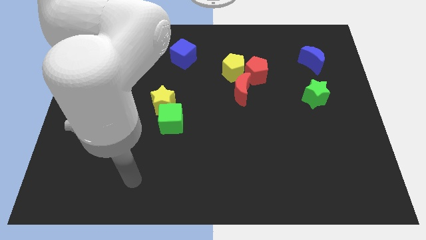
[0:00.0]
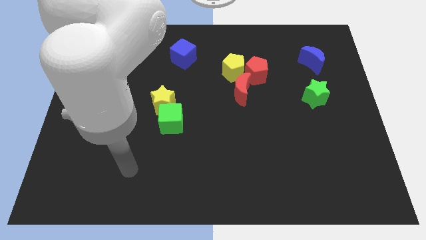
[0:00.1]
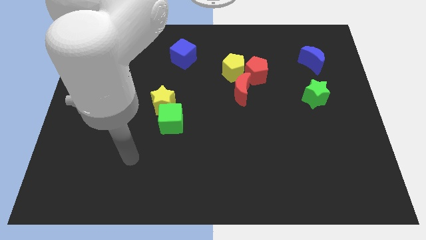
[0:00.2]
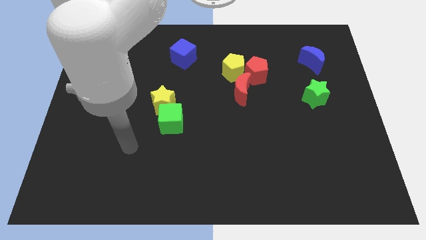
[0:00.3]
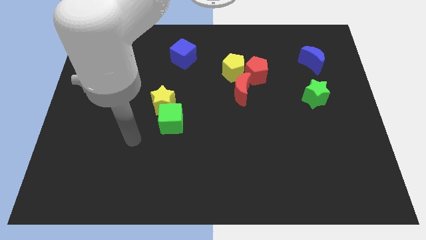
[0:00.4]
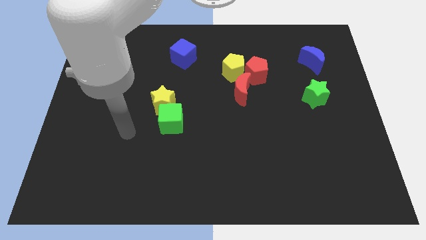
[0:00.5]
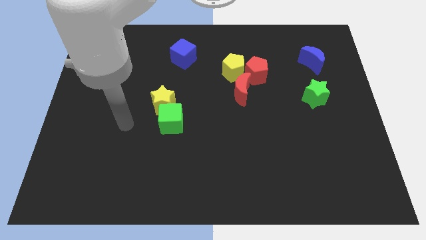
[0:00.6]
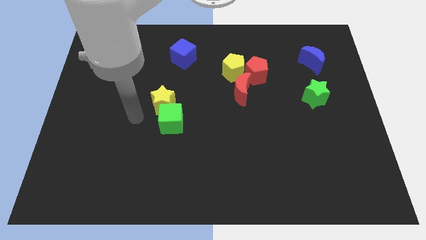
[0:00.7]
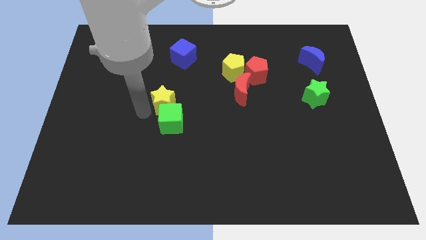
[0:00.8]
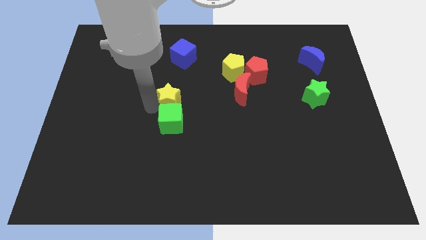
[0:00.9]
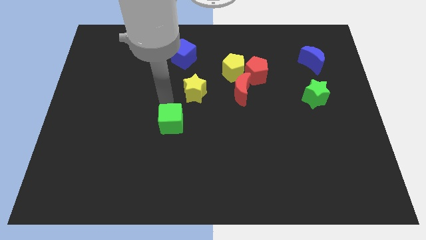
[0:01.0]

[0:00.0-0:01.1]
separate the green cube from the yellow star

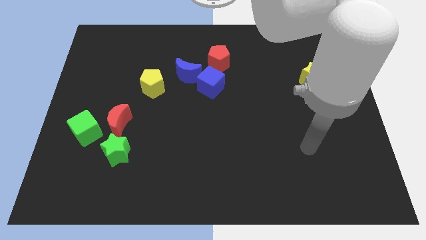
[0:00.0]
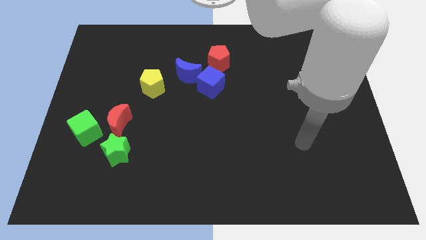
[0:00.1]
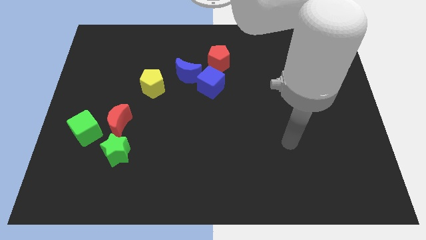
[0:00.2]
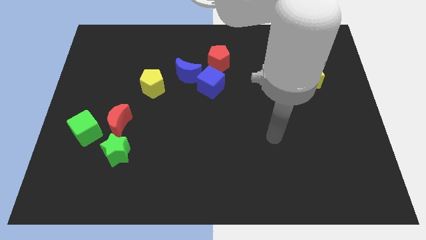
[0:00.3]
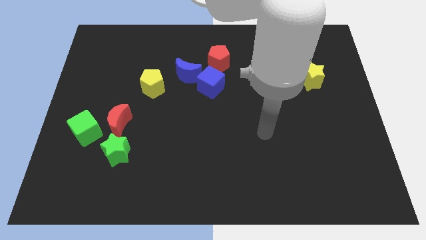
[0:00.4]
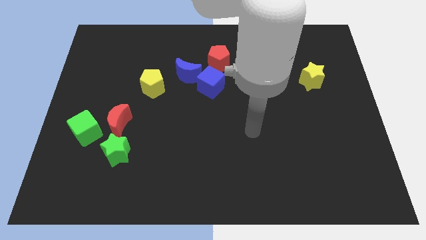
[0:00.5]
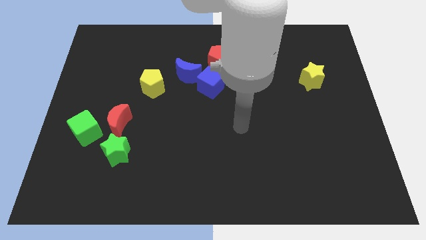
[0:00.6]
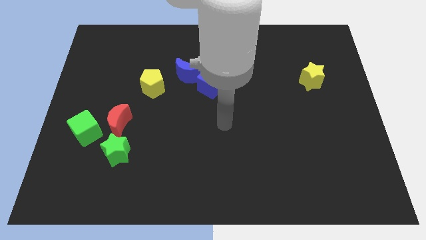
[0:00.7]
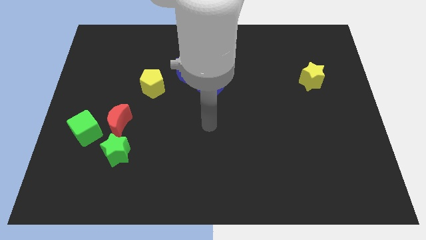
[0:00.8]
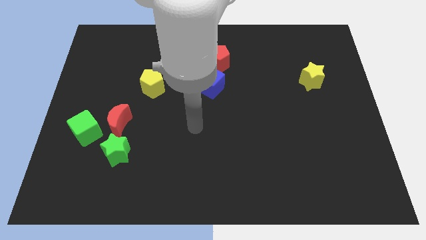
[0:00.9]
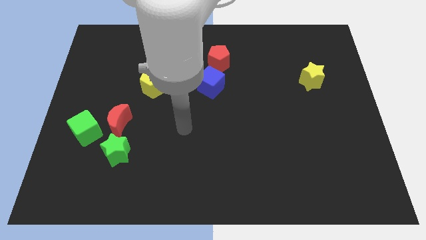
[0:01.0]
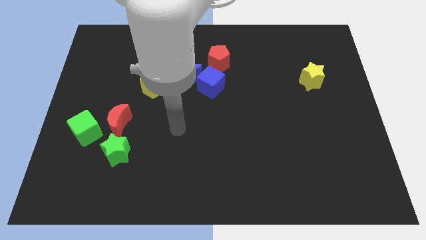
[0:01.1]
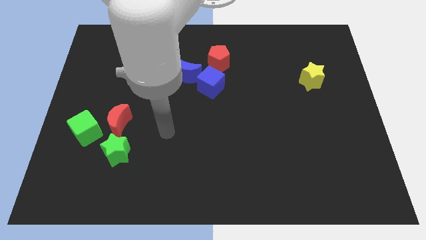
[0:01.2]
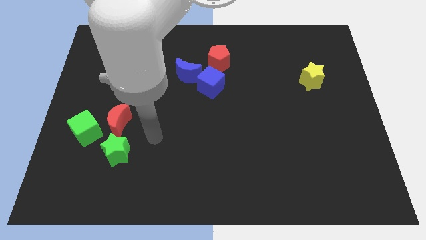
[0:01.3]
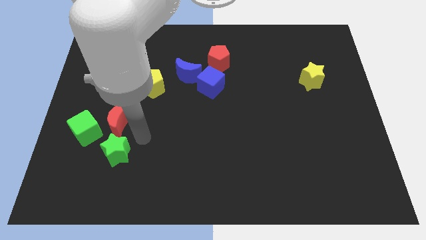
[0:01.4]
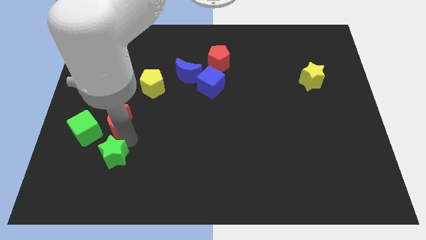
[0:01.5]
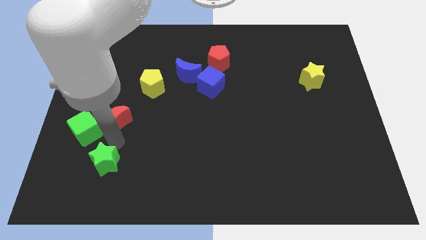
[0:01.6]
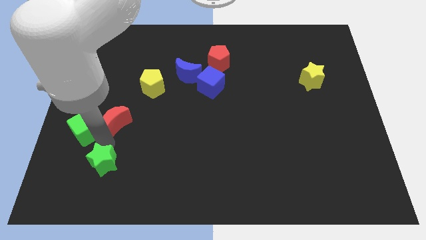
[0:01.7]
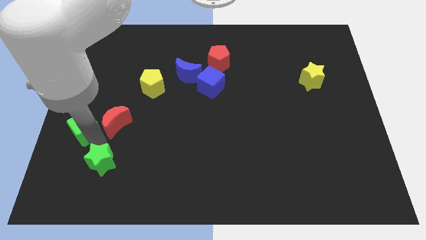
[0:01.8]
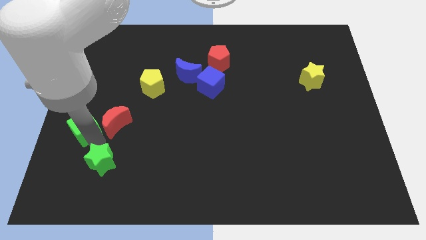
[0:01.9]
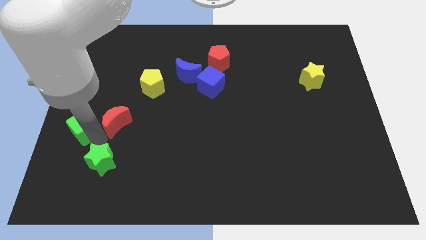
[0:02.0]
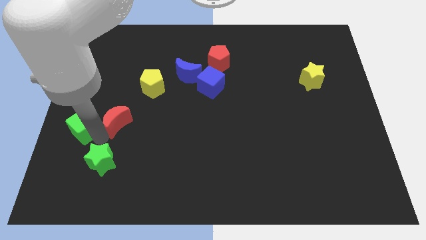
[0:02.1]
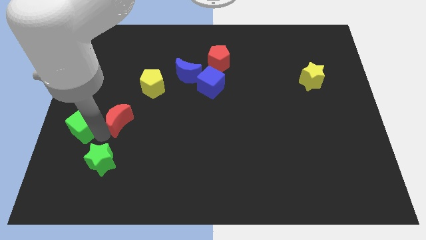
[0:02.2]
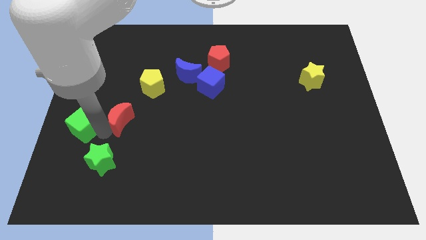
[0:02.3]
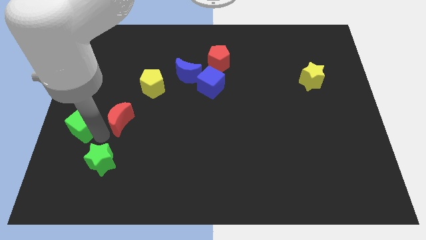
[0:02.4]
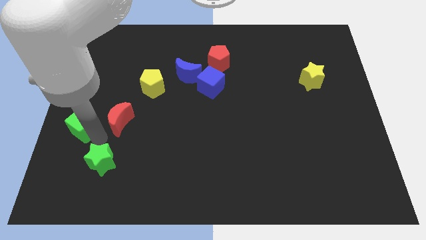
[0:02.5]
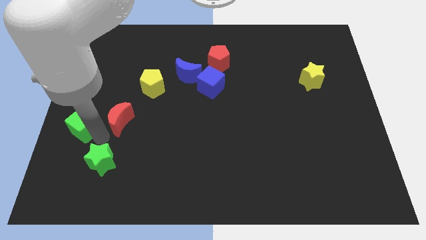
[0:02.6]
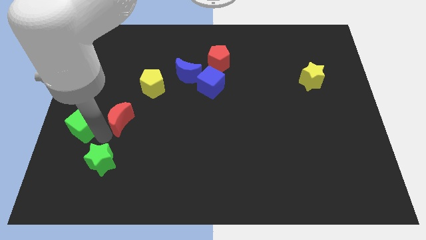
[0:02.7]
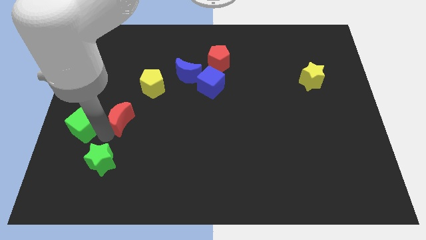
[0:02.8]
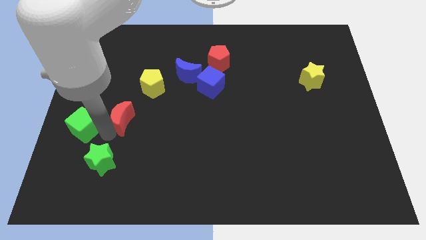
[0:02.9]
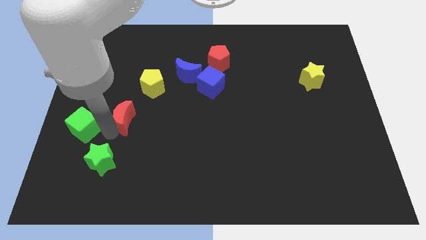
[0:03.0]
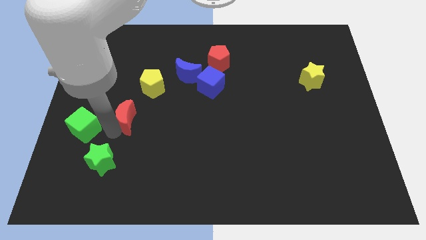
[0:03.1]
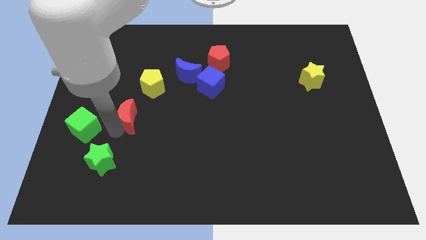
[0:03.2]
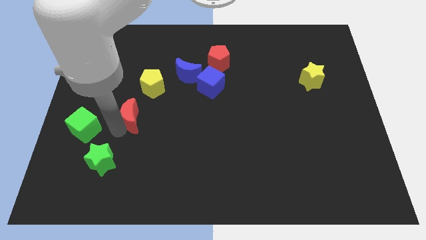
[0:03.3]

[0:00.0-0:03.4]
pull the red moon apart from the green cube and green star

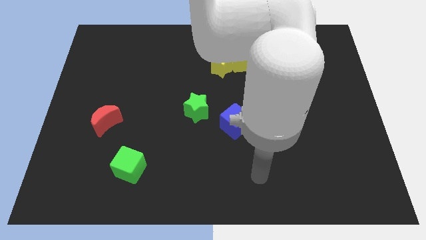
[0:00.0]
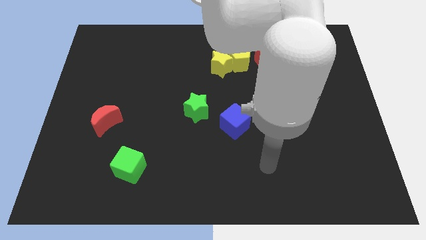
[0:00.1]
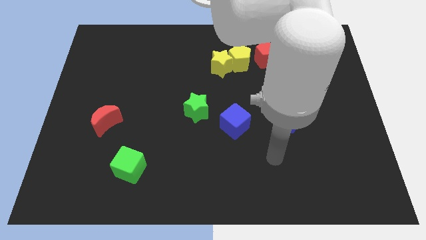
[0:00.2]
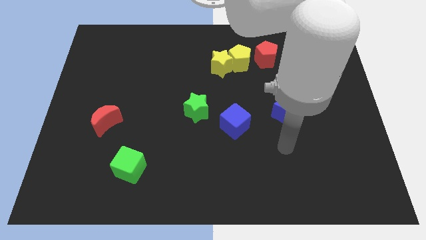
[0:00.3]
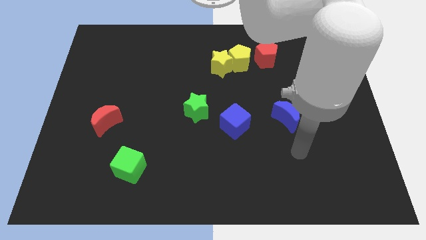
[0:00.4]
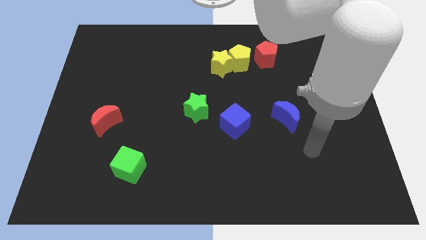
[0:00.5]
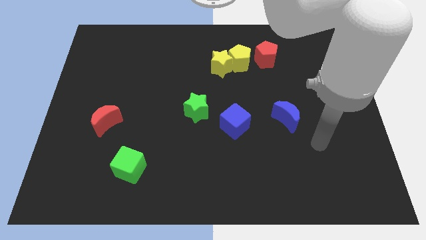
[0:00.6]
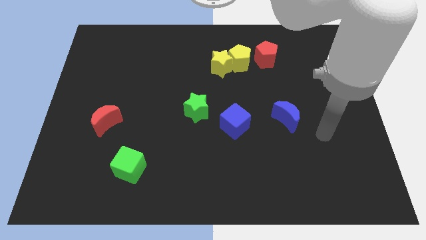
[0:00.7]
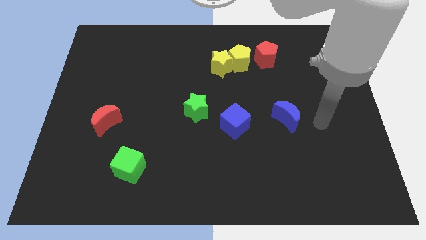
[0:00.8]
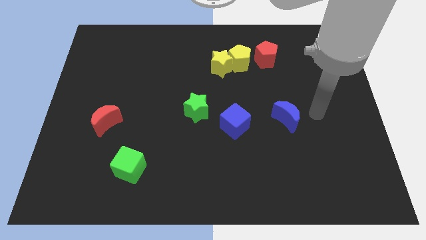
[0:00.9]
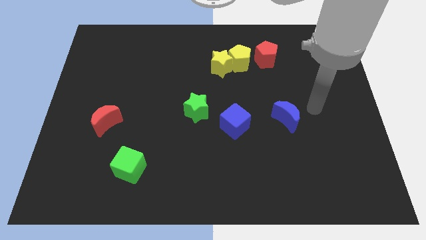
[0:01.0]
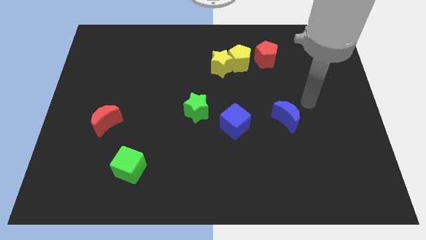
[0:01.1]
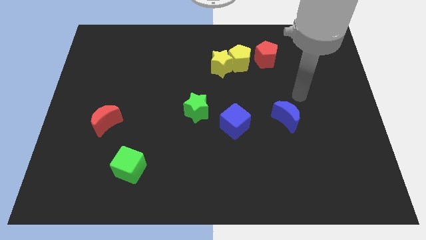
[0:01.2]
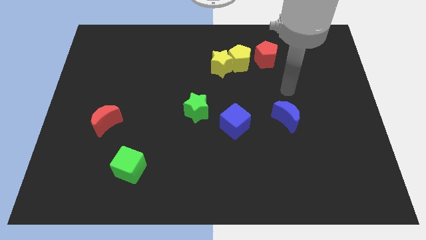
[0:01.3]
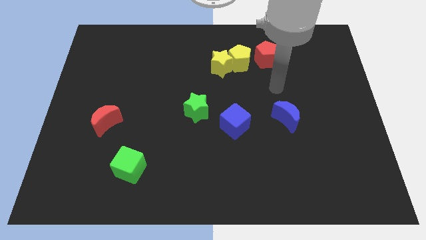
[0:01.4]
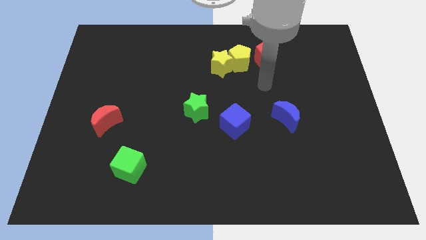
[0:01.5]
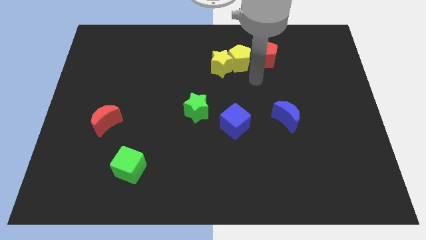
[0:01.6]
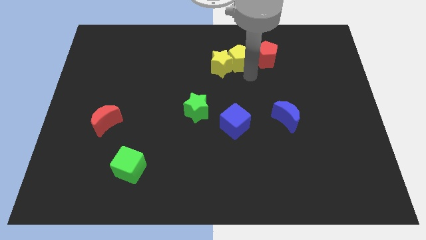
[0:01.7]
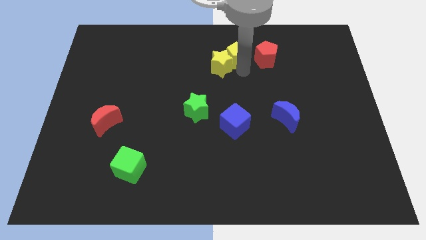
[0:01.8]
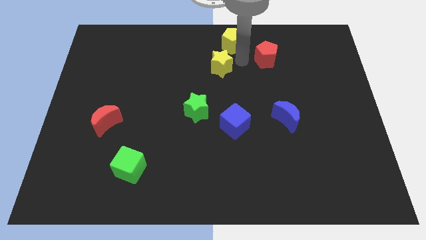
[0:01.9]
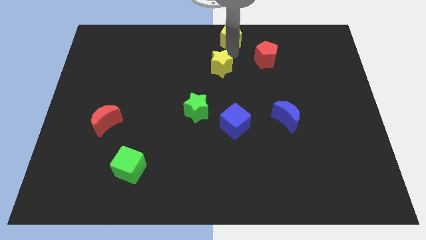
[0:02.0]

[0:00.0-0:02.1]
move the yellow star away from the yellow pentagon

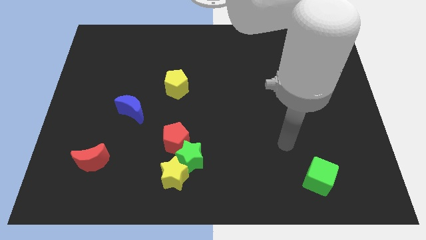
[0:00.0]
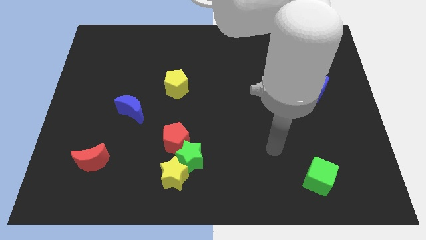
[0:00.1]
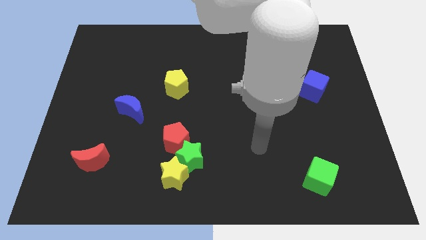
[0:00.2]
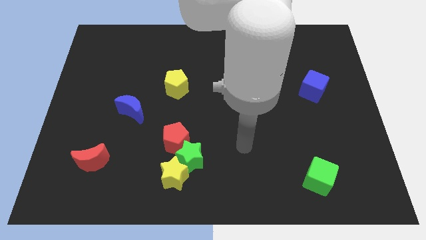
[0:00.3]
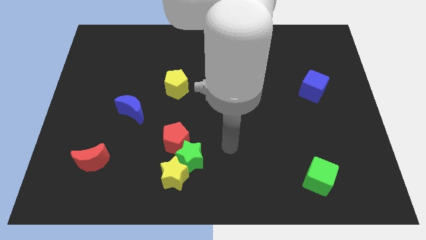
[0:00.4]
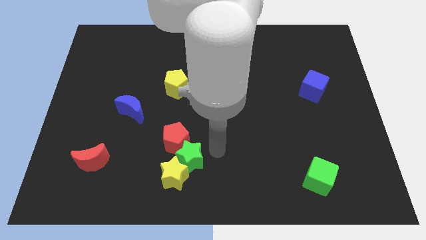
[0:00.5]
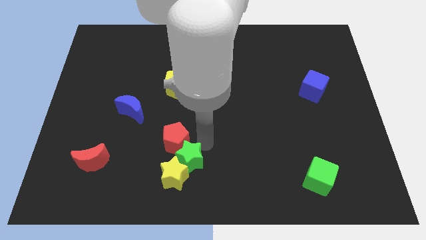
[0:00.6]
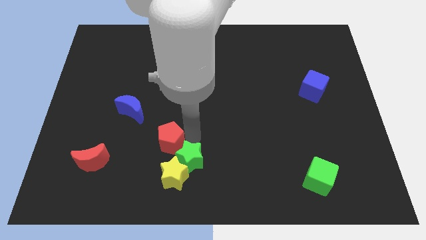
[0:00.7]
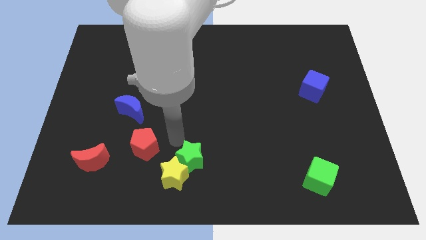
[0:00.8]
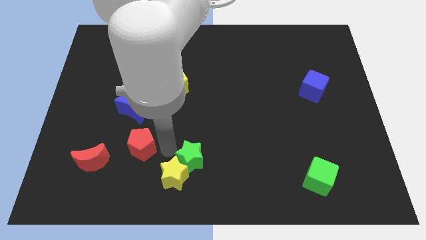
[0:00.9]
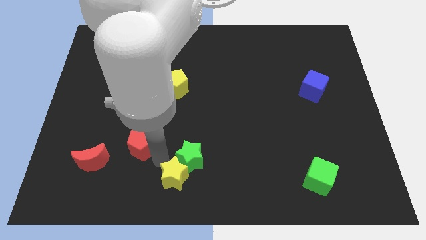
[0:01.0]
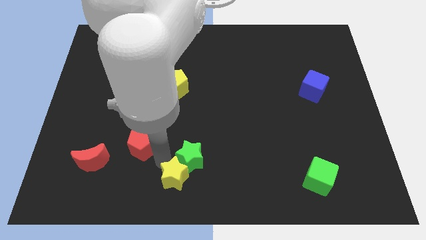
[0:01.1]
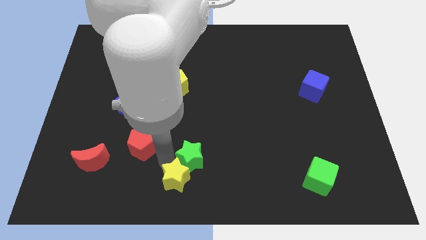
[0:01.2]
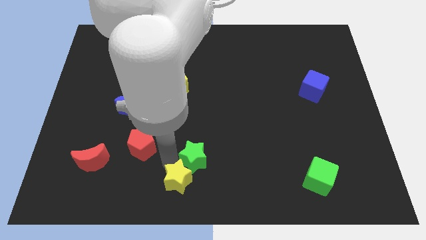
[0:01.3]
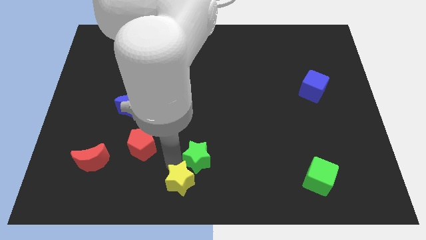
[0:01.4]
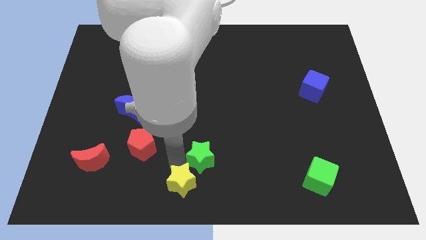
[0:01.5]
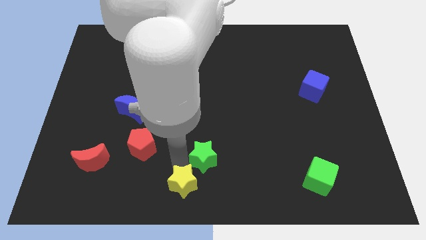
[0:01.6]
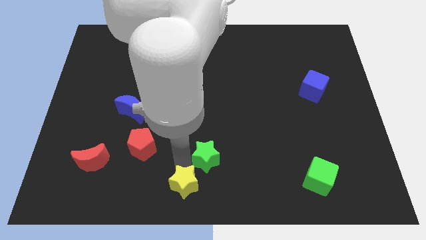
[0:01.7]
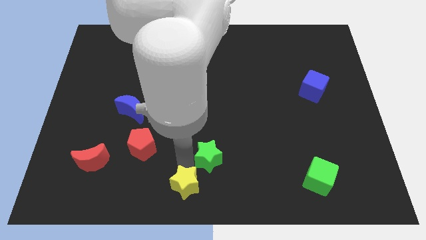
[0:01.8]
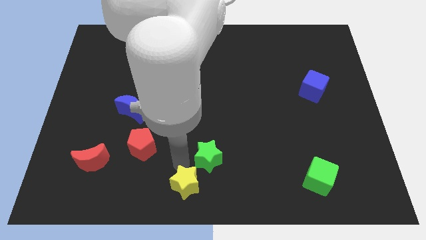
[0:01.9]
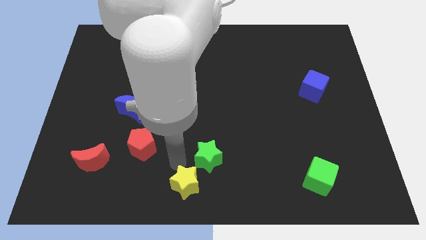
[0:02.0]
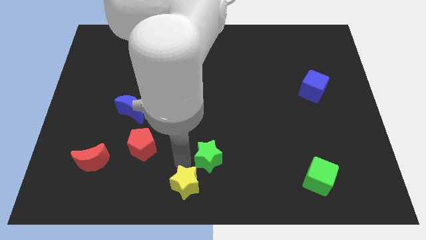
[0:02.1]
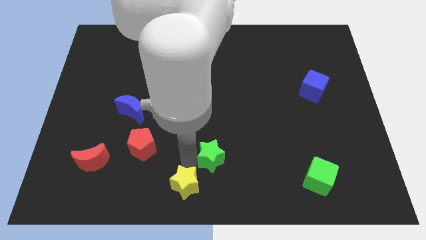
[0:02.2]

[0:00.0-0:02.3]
pull the green star apart from the yellow star and red pentagon

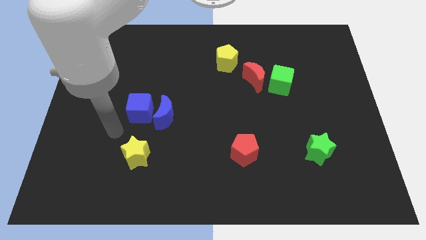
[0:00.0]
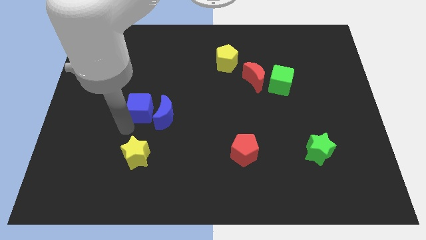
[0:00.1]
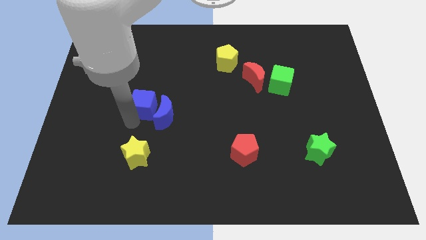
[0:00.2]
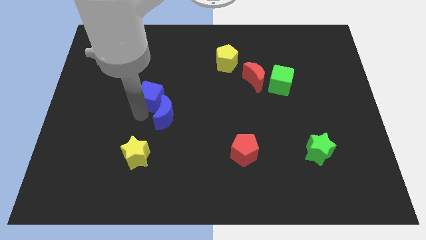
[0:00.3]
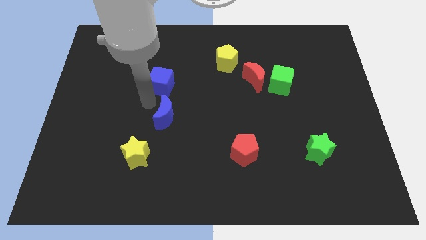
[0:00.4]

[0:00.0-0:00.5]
separate the blue moon from the blue cube
